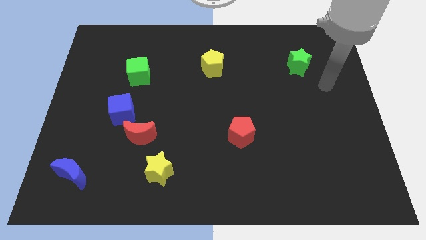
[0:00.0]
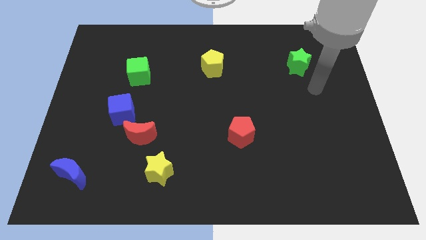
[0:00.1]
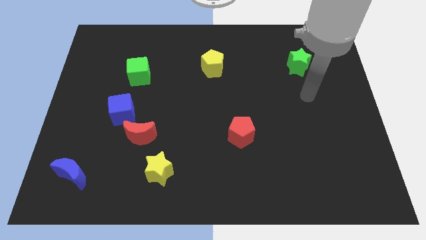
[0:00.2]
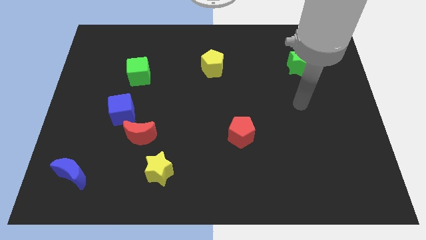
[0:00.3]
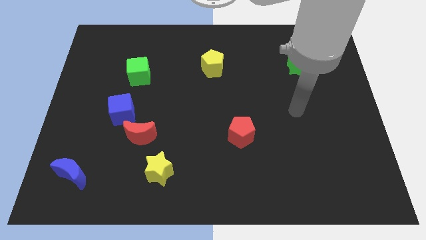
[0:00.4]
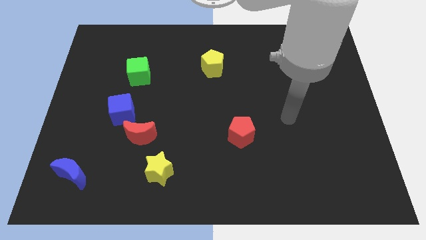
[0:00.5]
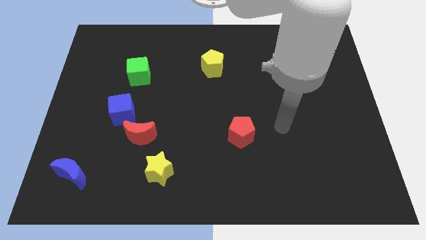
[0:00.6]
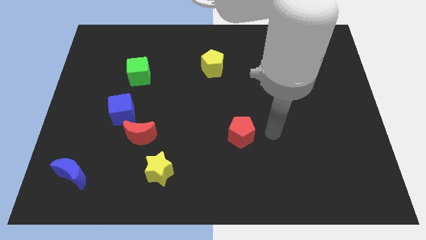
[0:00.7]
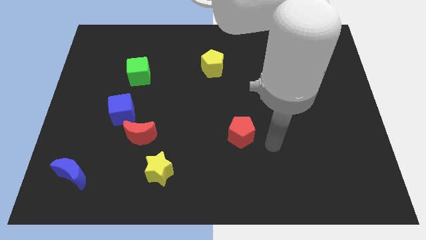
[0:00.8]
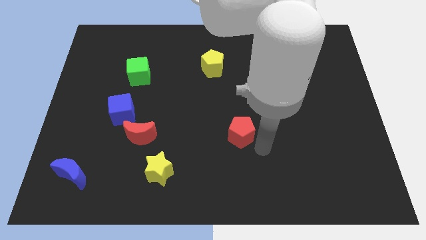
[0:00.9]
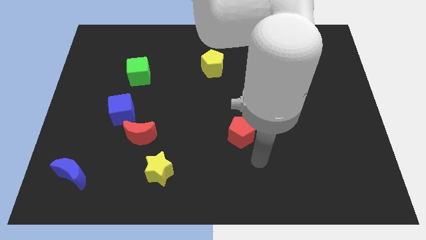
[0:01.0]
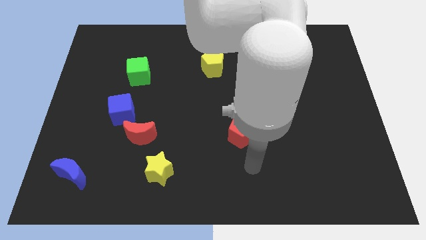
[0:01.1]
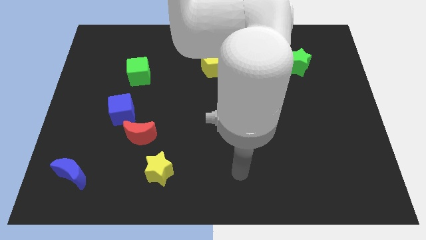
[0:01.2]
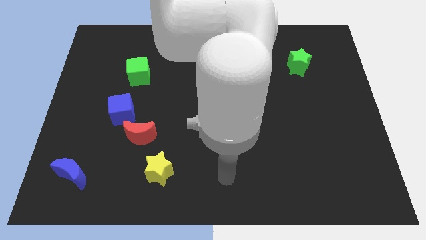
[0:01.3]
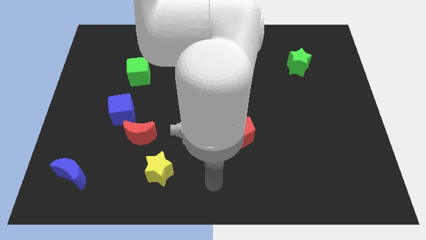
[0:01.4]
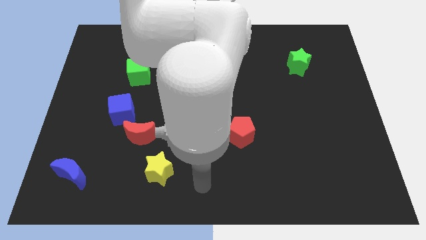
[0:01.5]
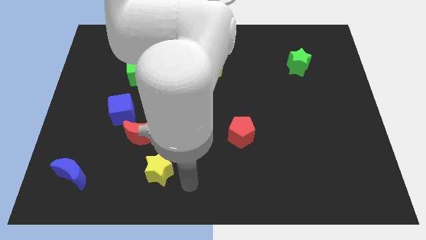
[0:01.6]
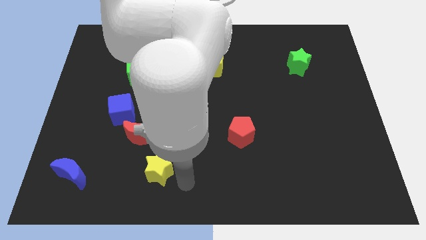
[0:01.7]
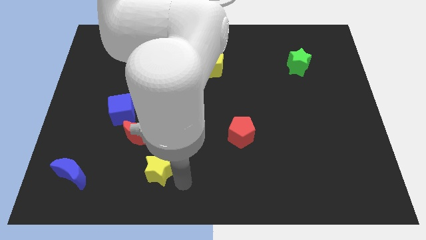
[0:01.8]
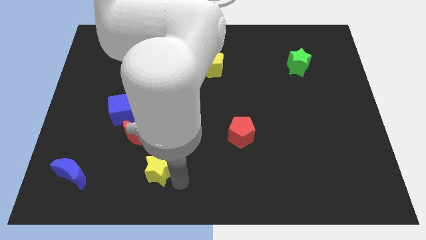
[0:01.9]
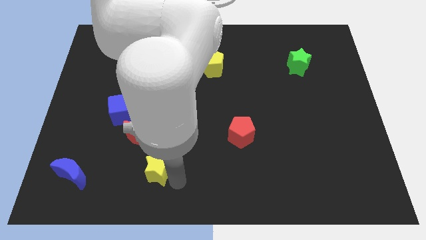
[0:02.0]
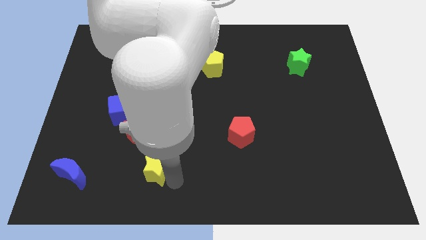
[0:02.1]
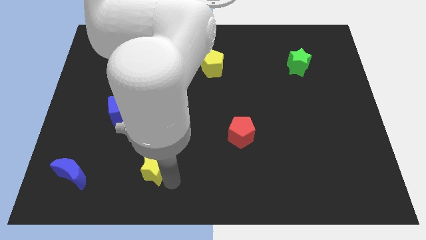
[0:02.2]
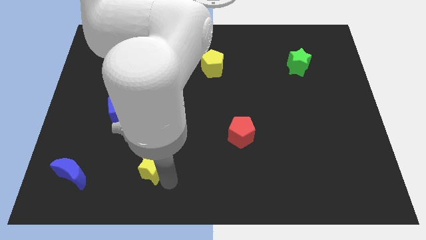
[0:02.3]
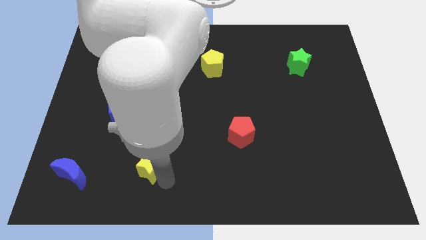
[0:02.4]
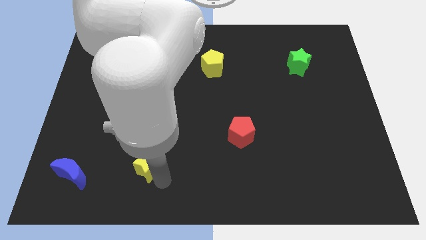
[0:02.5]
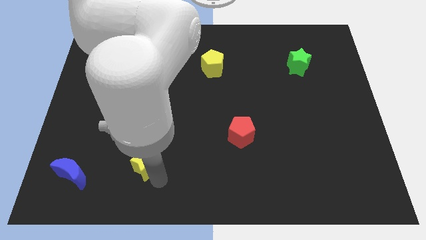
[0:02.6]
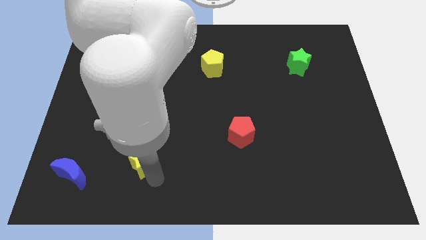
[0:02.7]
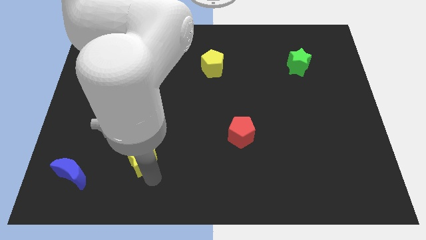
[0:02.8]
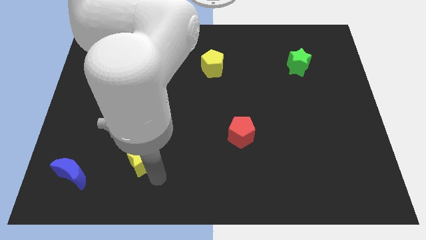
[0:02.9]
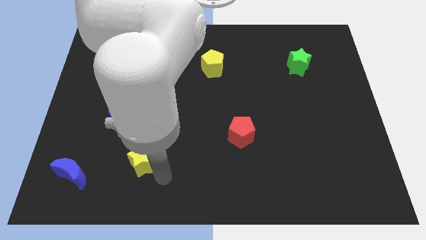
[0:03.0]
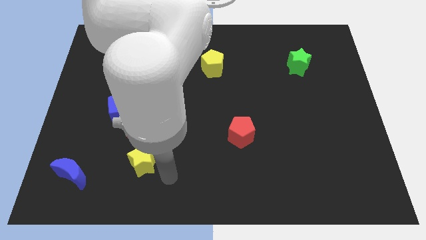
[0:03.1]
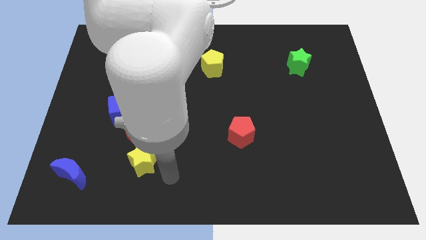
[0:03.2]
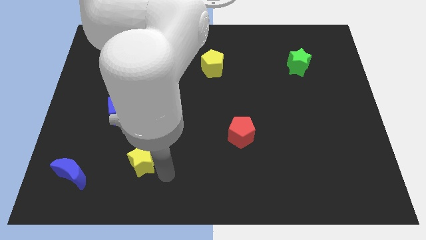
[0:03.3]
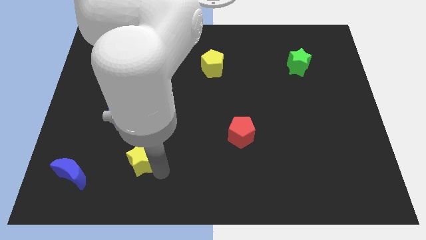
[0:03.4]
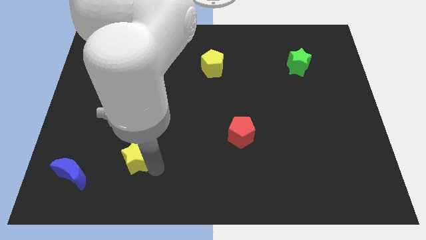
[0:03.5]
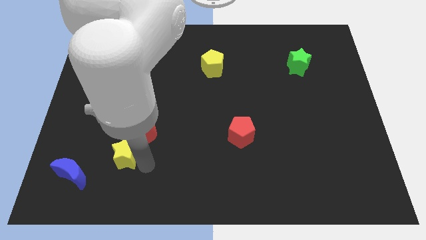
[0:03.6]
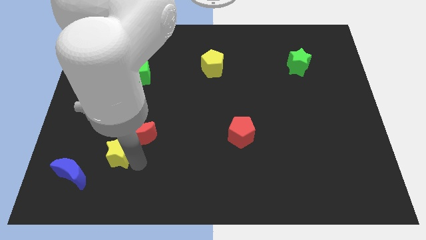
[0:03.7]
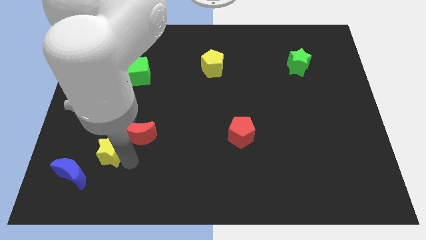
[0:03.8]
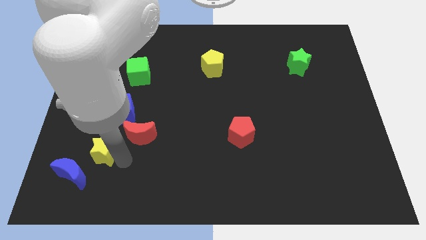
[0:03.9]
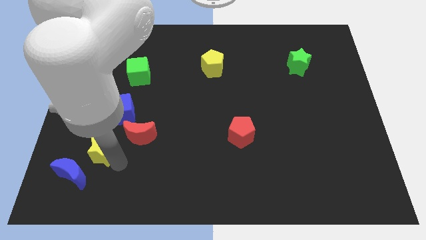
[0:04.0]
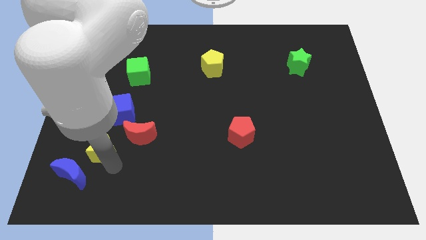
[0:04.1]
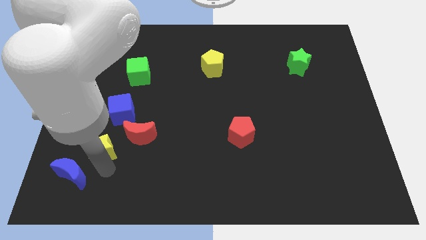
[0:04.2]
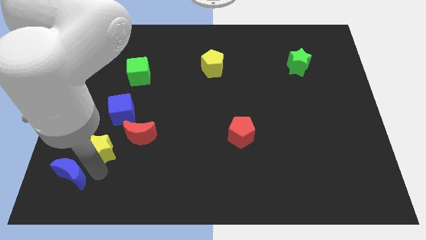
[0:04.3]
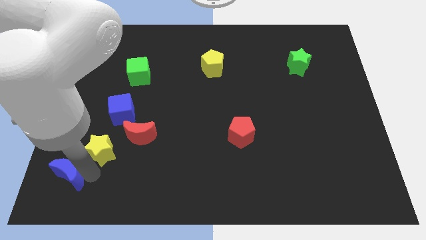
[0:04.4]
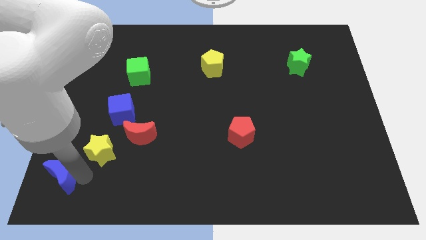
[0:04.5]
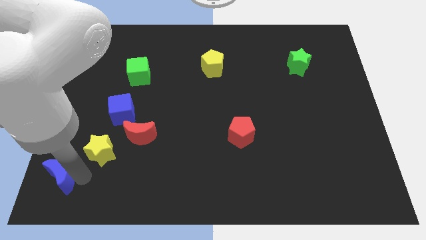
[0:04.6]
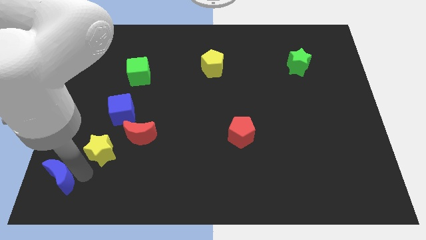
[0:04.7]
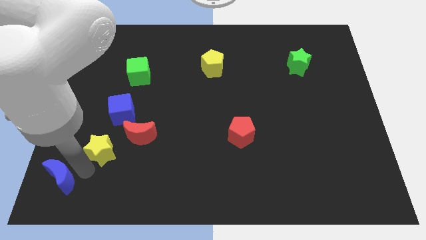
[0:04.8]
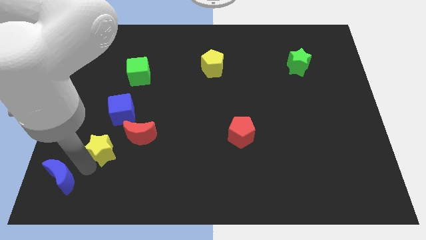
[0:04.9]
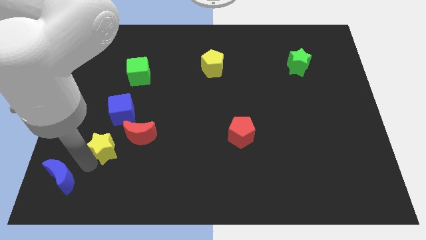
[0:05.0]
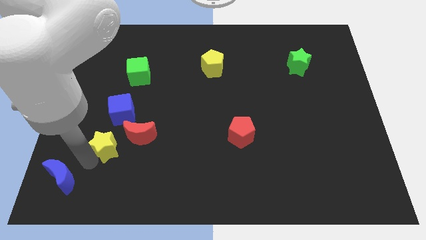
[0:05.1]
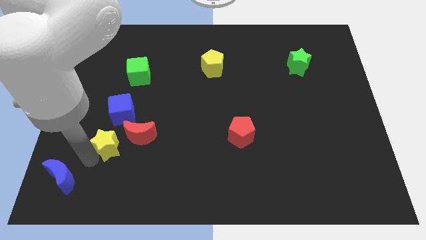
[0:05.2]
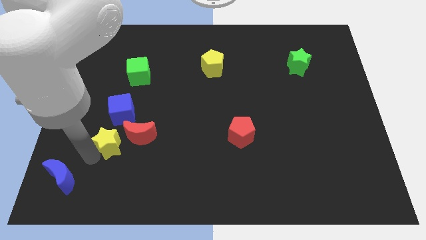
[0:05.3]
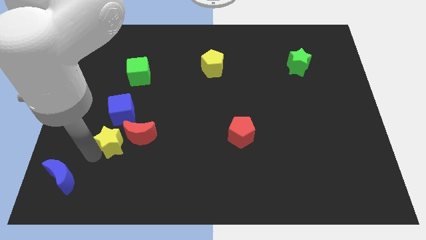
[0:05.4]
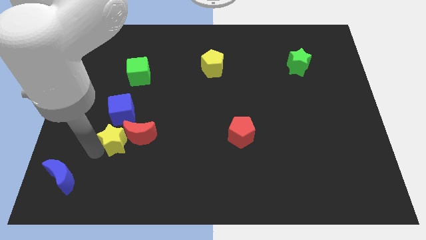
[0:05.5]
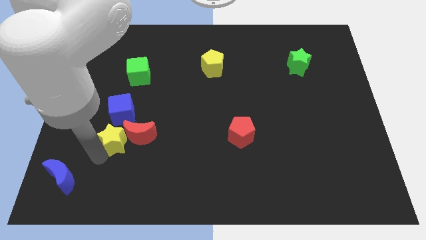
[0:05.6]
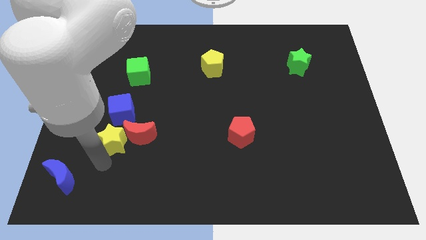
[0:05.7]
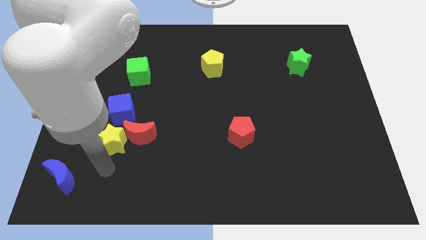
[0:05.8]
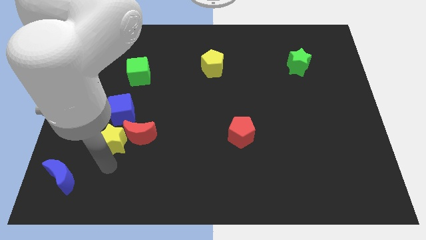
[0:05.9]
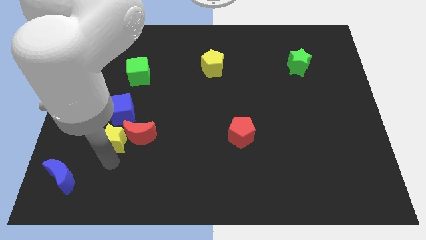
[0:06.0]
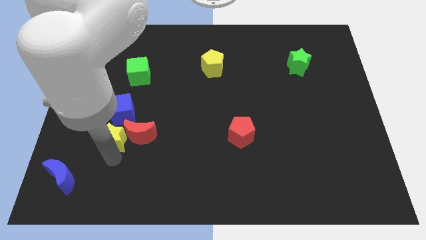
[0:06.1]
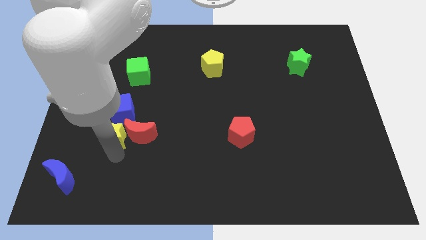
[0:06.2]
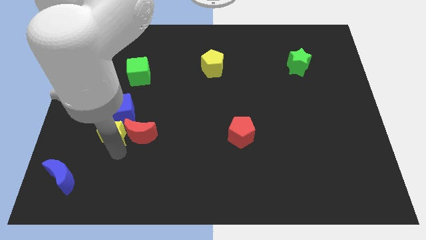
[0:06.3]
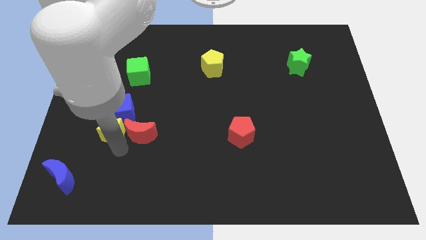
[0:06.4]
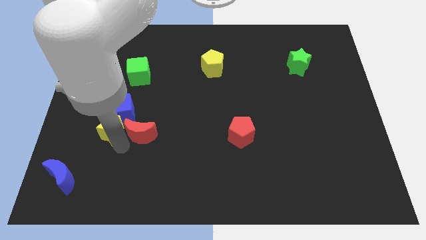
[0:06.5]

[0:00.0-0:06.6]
slide the yellow star next to the blue cube

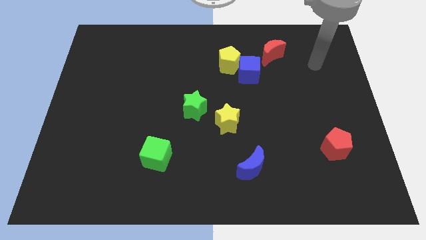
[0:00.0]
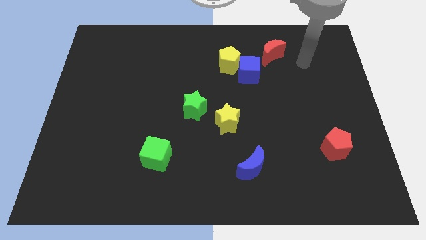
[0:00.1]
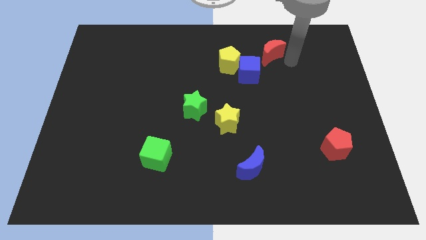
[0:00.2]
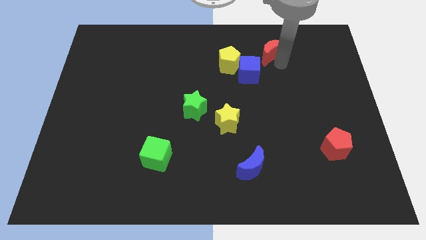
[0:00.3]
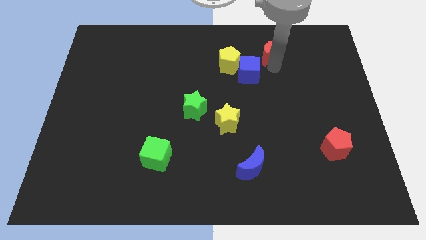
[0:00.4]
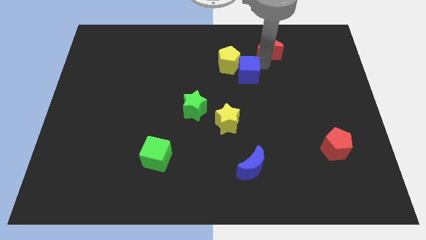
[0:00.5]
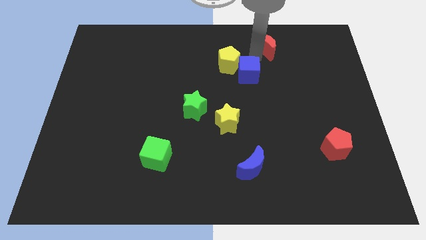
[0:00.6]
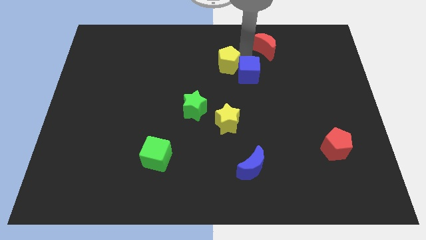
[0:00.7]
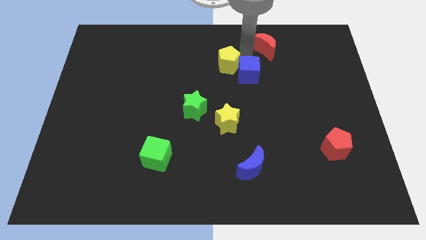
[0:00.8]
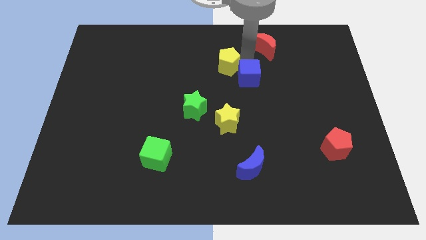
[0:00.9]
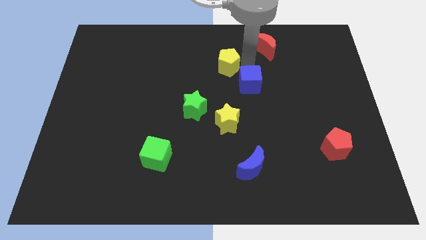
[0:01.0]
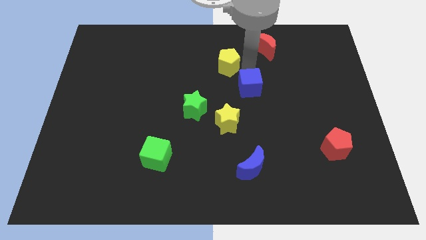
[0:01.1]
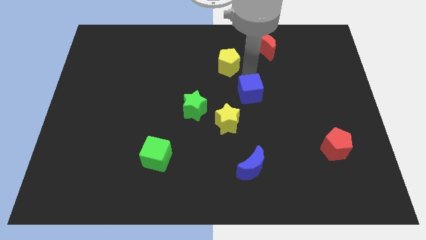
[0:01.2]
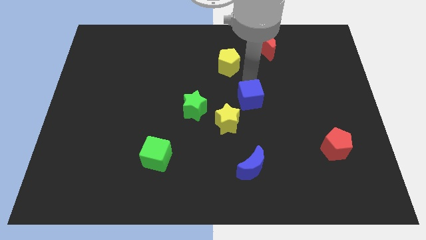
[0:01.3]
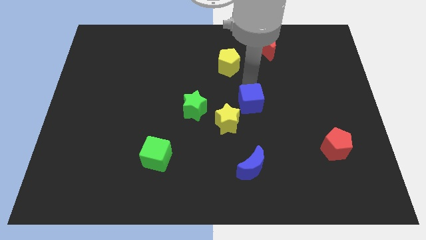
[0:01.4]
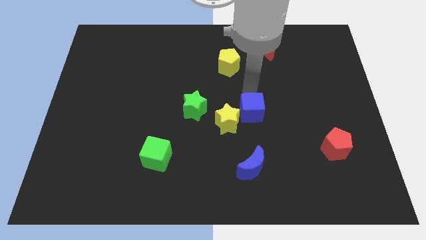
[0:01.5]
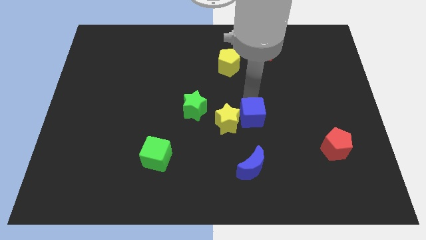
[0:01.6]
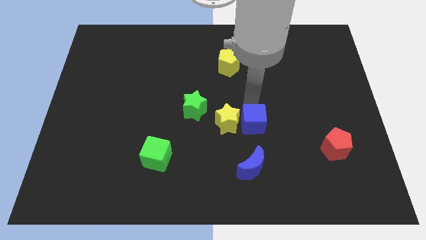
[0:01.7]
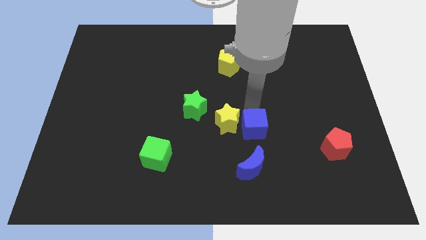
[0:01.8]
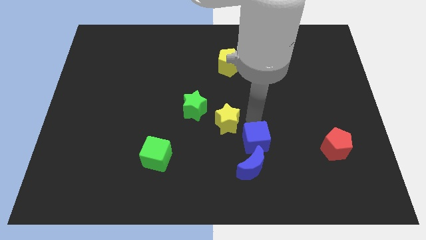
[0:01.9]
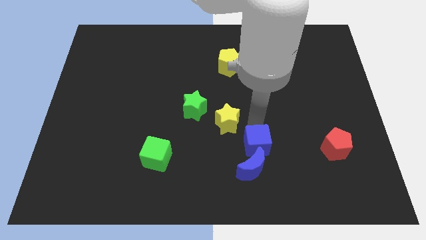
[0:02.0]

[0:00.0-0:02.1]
move the blue cube to the blue moon
